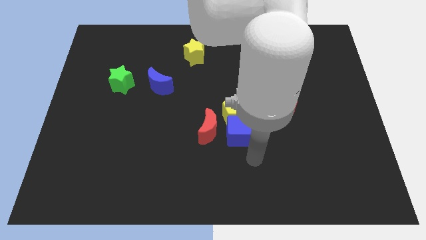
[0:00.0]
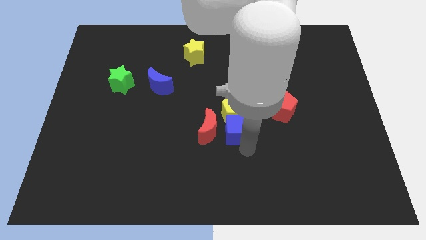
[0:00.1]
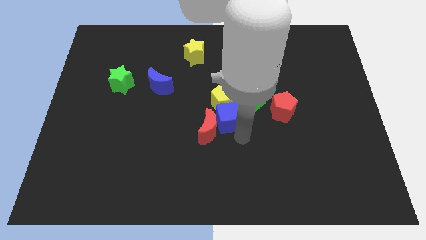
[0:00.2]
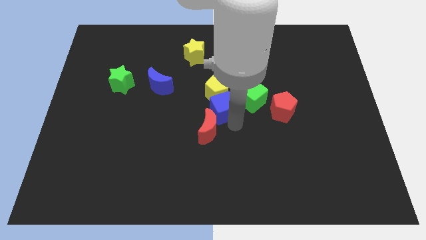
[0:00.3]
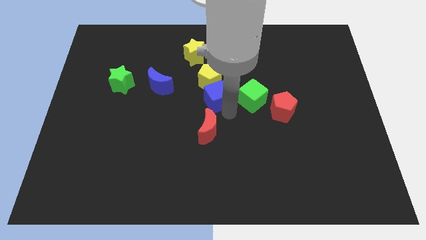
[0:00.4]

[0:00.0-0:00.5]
separate the yellow pentagon from the group of blocks

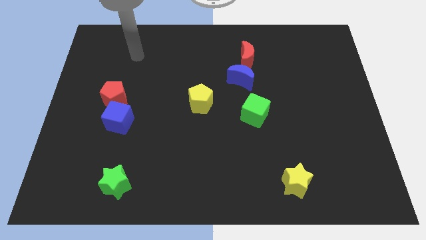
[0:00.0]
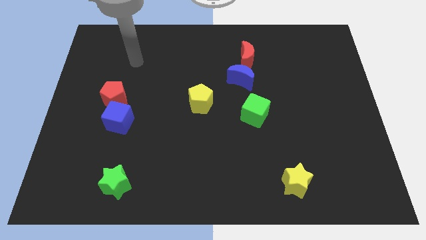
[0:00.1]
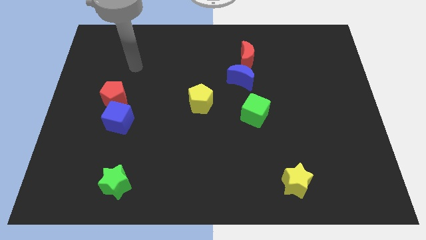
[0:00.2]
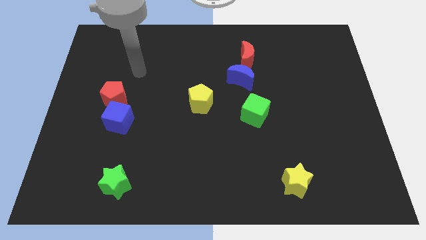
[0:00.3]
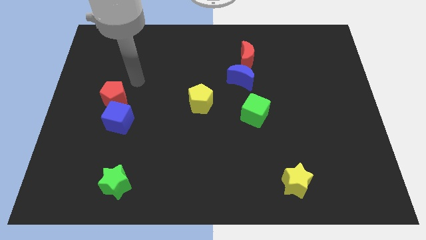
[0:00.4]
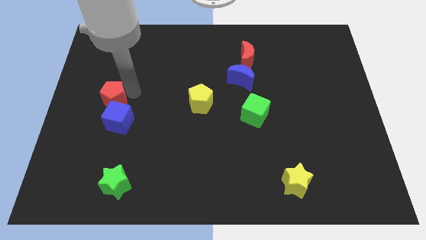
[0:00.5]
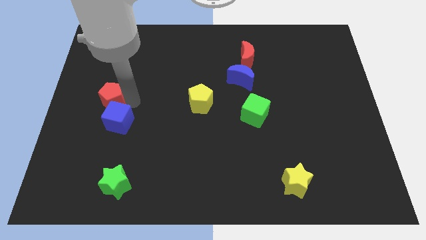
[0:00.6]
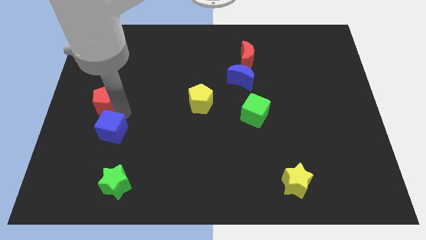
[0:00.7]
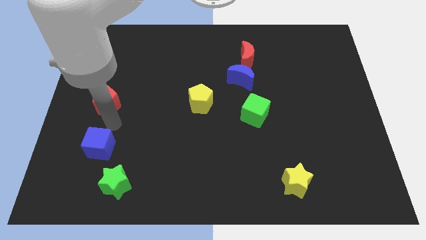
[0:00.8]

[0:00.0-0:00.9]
move the red pentagon away from the blue cube

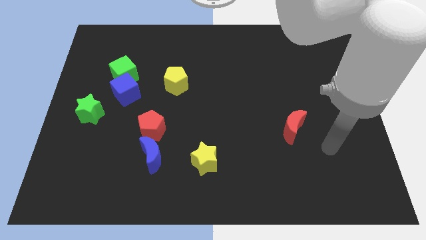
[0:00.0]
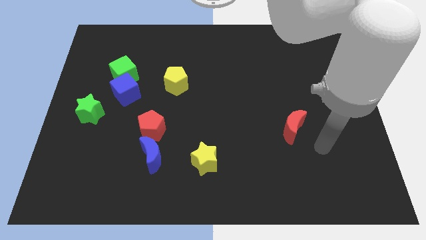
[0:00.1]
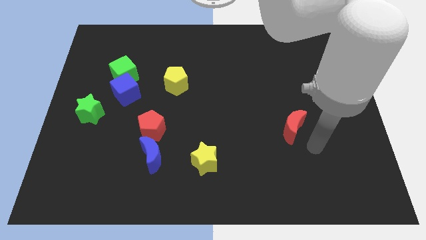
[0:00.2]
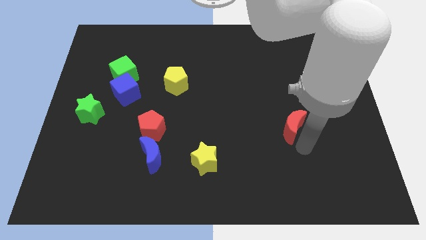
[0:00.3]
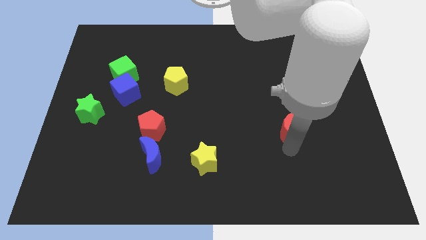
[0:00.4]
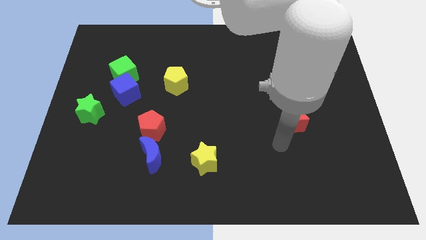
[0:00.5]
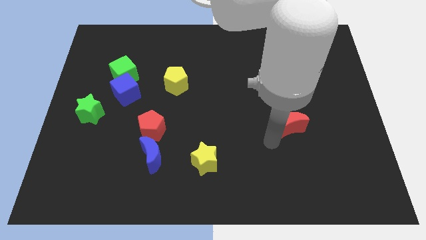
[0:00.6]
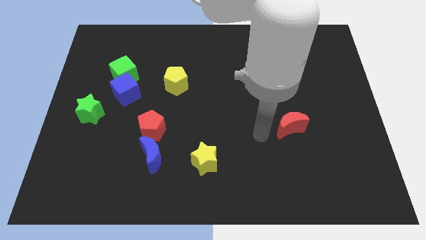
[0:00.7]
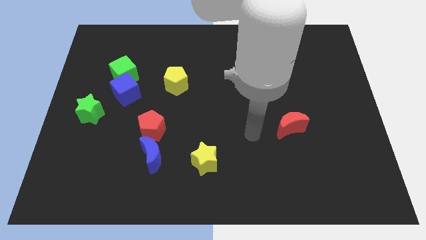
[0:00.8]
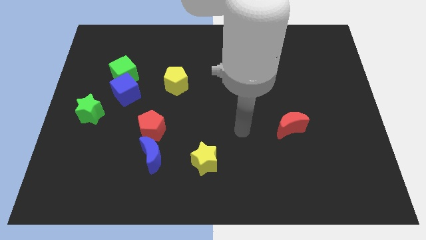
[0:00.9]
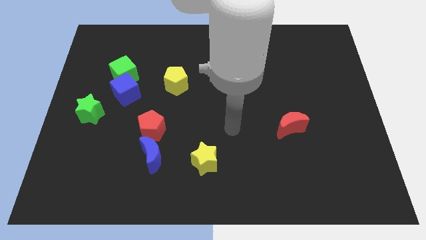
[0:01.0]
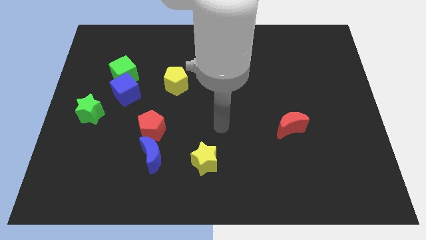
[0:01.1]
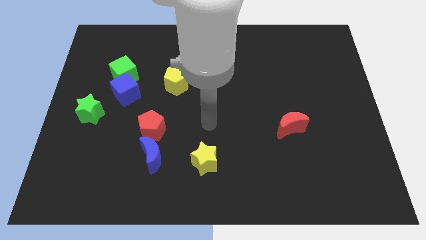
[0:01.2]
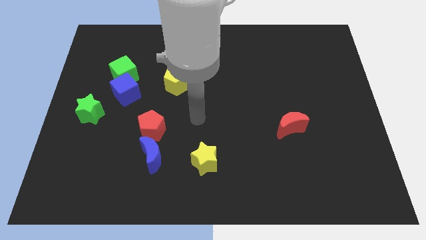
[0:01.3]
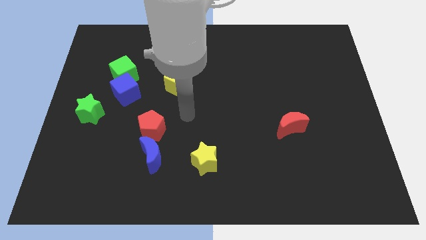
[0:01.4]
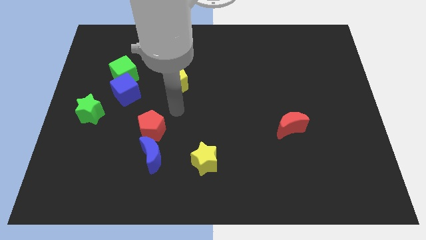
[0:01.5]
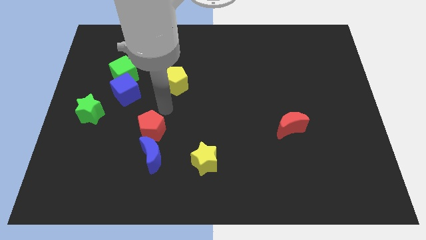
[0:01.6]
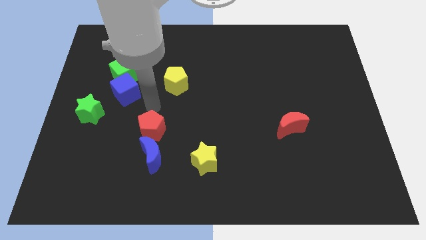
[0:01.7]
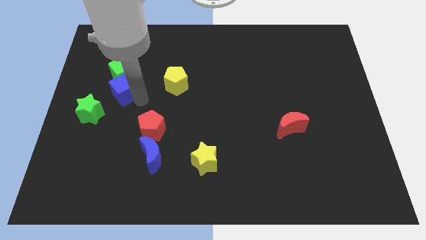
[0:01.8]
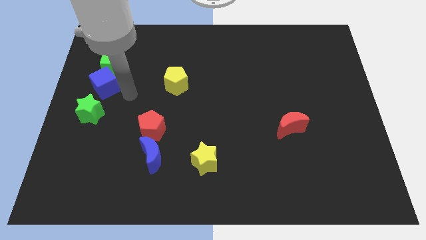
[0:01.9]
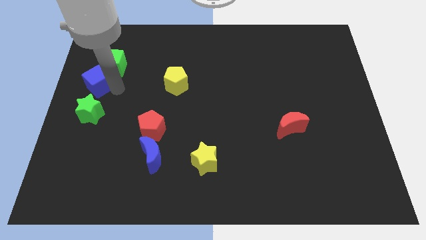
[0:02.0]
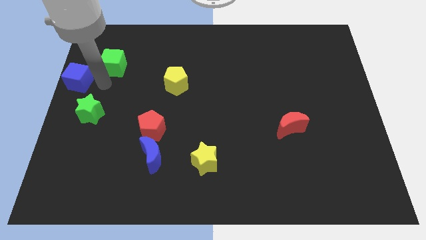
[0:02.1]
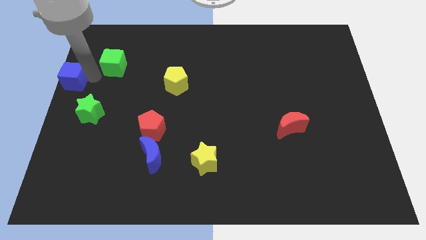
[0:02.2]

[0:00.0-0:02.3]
separate the green cube from the blue cube

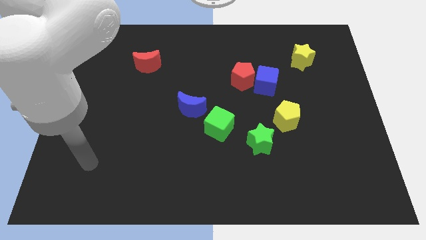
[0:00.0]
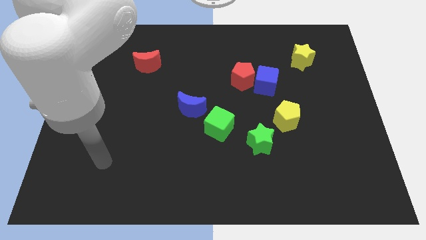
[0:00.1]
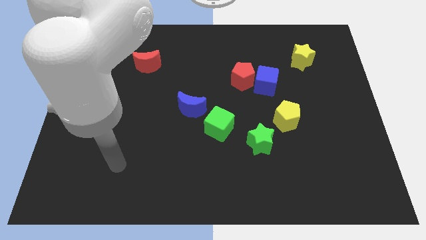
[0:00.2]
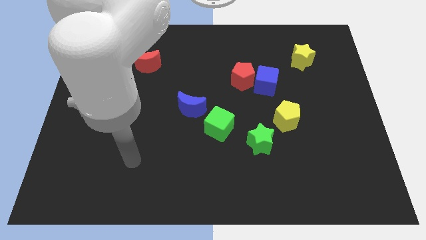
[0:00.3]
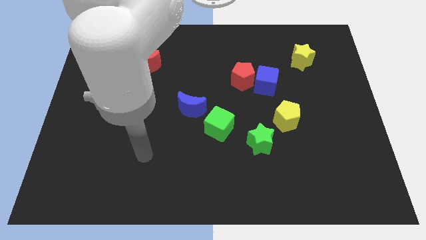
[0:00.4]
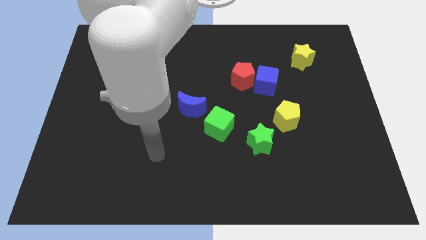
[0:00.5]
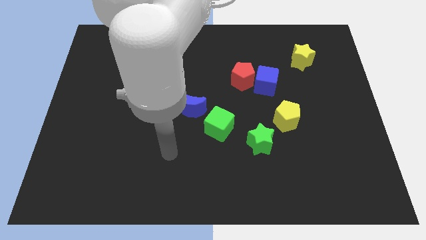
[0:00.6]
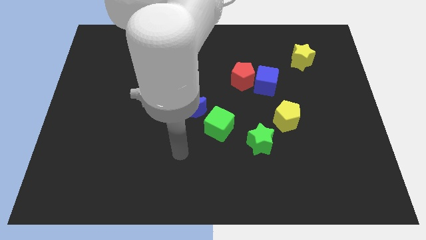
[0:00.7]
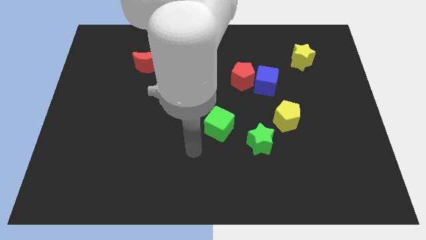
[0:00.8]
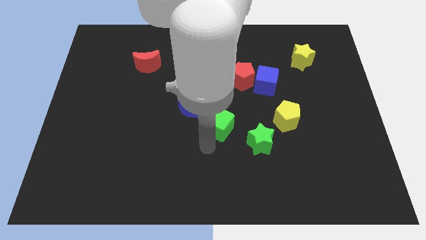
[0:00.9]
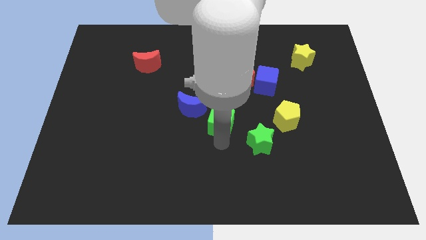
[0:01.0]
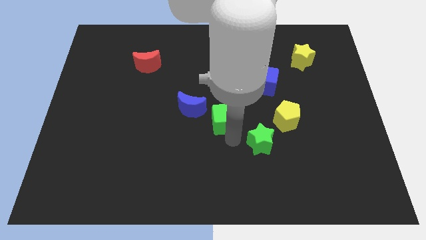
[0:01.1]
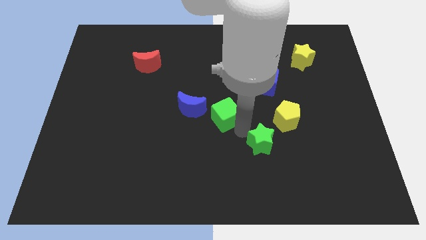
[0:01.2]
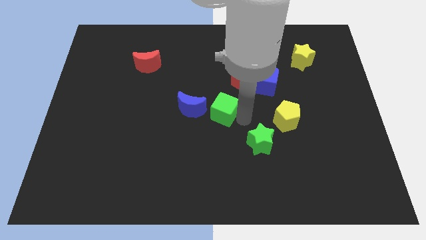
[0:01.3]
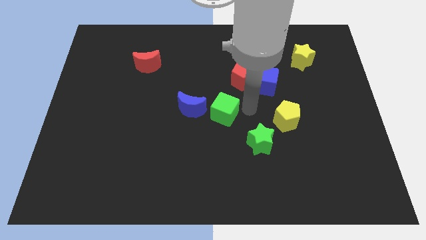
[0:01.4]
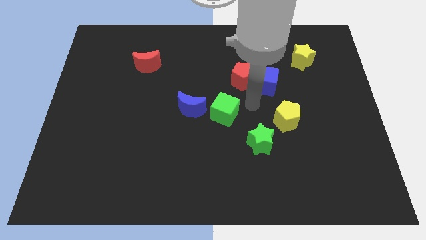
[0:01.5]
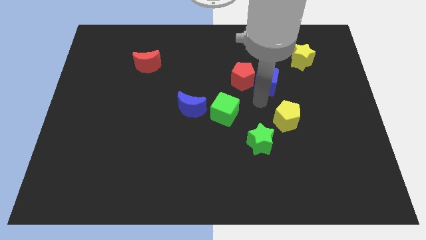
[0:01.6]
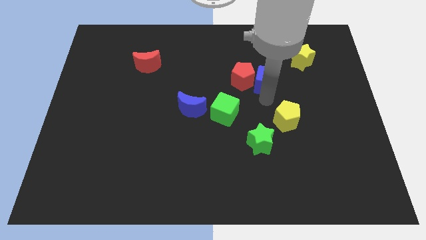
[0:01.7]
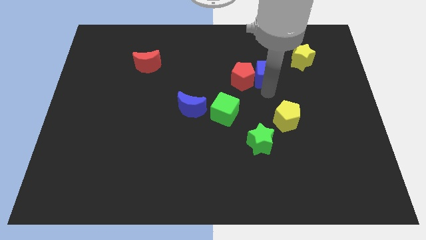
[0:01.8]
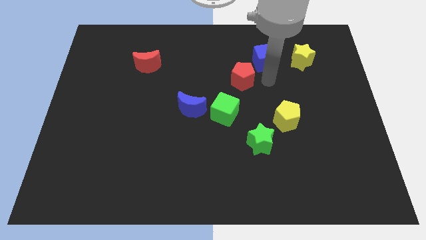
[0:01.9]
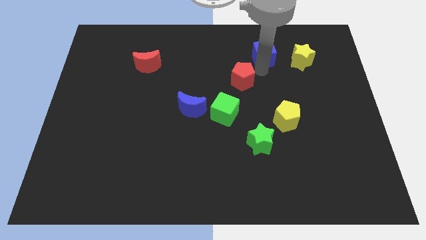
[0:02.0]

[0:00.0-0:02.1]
separate the red pentagon from the blue cube

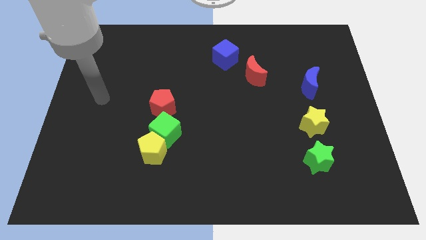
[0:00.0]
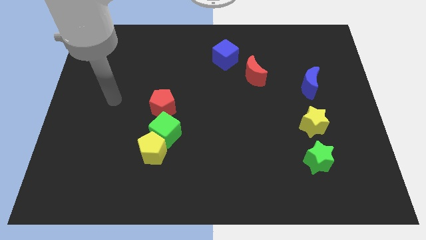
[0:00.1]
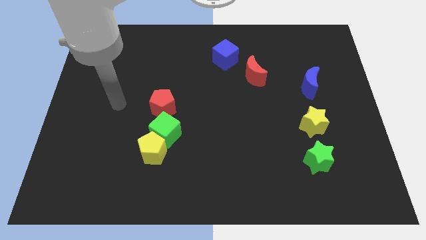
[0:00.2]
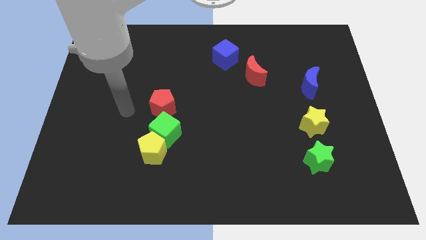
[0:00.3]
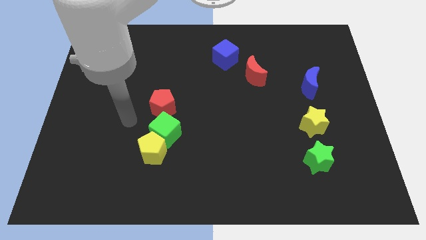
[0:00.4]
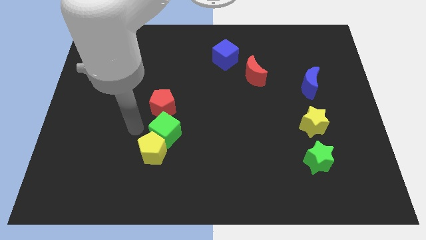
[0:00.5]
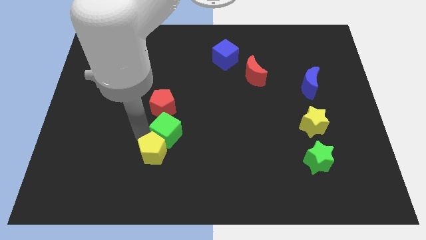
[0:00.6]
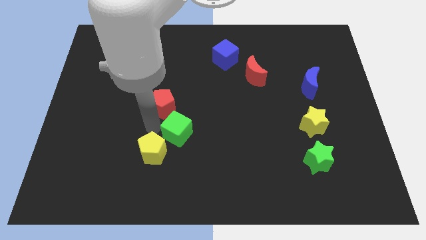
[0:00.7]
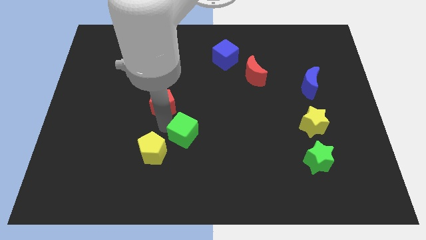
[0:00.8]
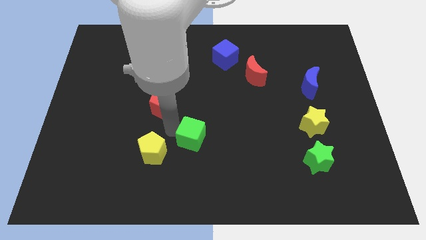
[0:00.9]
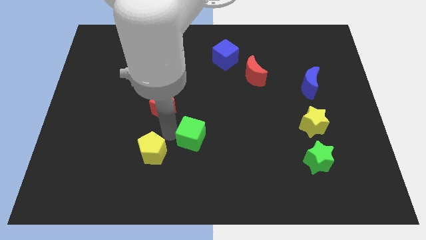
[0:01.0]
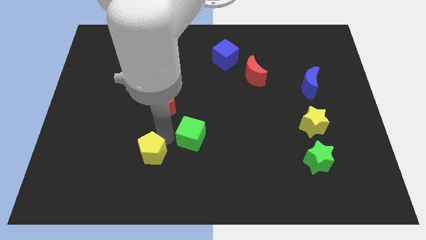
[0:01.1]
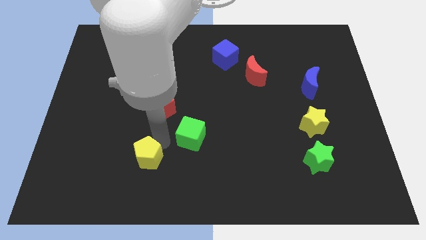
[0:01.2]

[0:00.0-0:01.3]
move the yellow pentagon away from the green cube

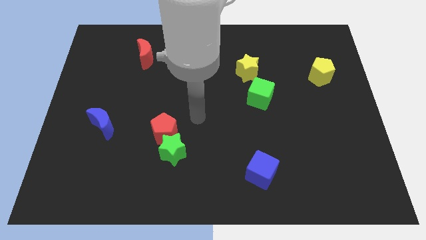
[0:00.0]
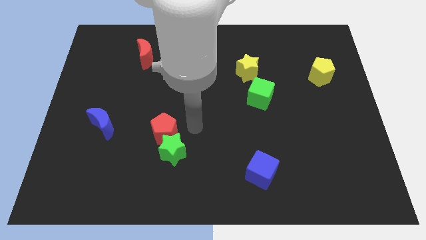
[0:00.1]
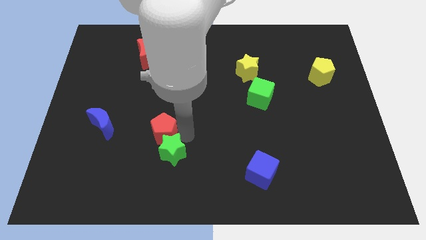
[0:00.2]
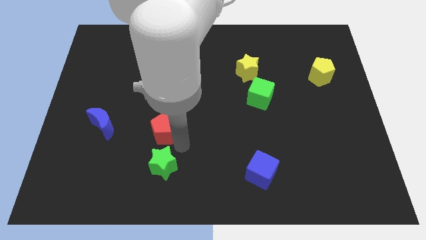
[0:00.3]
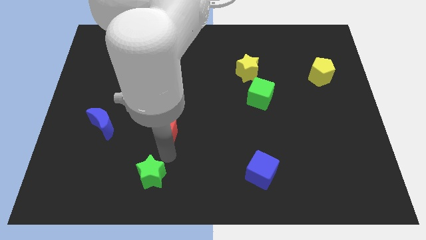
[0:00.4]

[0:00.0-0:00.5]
pull the red pentagon apart from the green star

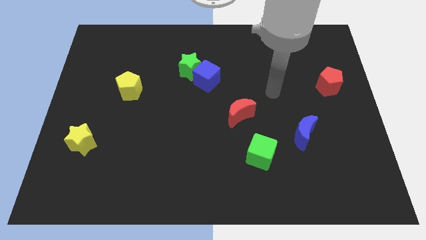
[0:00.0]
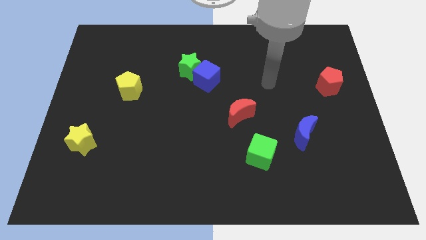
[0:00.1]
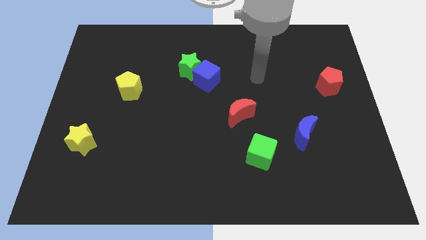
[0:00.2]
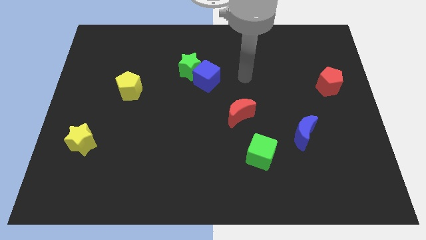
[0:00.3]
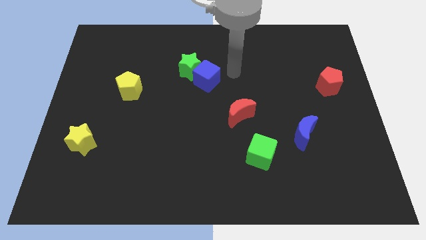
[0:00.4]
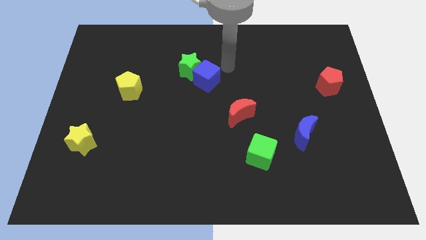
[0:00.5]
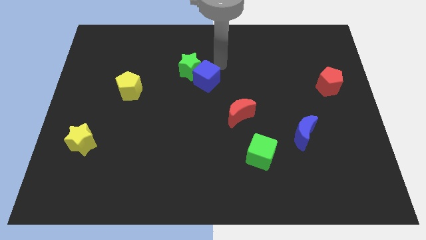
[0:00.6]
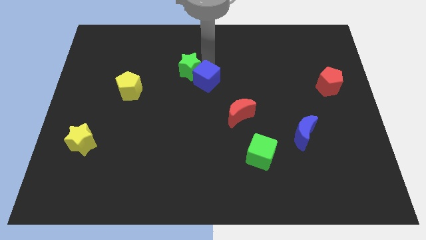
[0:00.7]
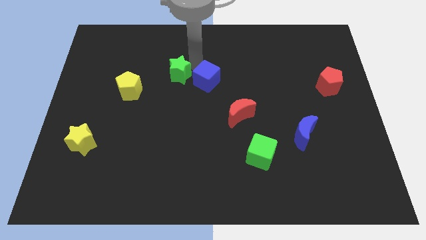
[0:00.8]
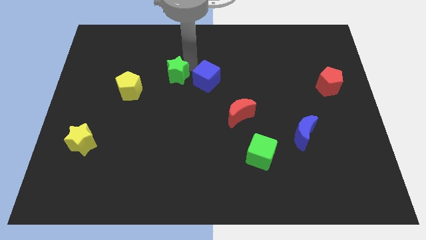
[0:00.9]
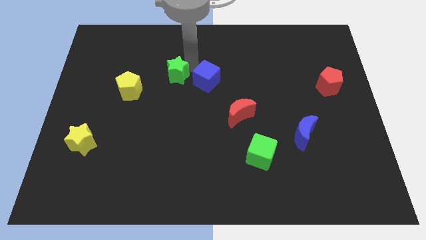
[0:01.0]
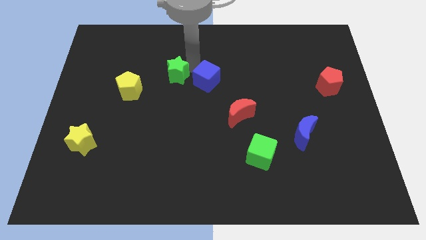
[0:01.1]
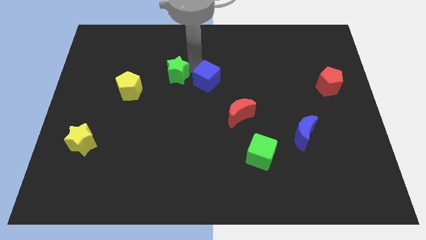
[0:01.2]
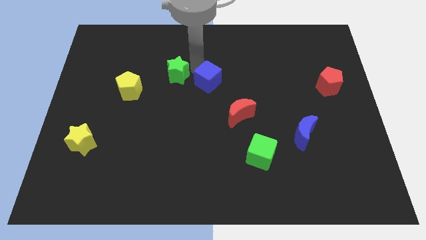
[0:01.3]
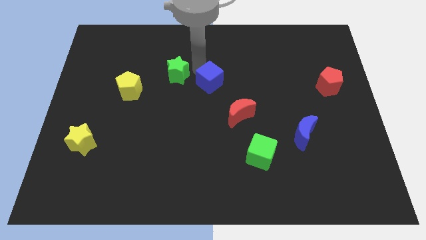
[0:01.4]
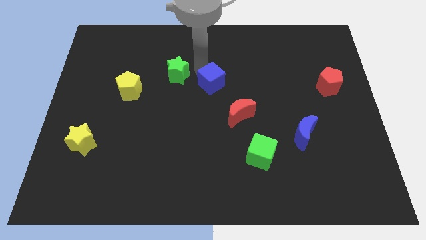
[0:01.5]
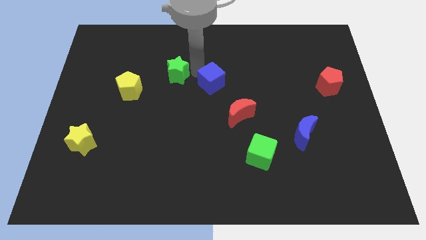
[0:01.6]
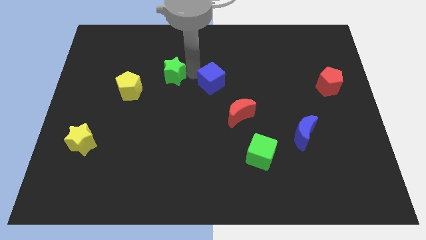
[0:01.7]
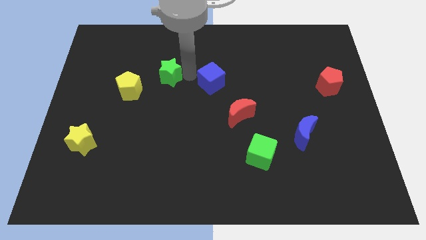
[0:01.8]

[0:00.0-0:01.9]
pull the blue cube apart from the green star
